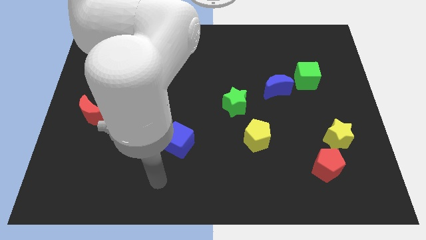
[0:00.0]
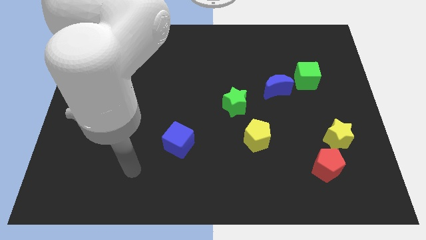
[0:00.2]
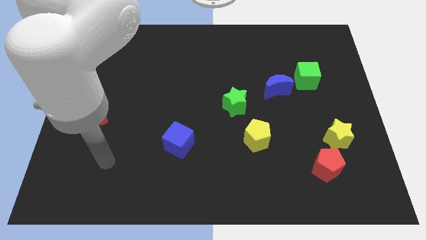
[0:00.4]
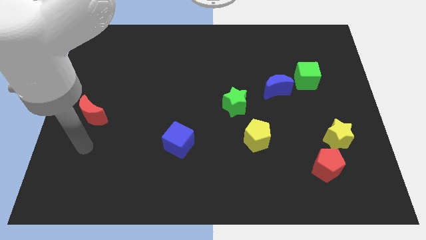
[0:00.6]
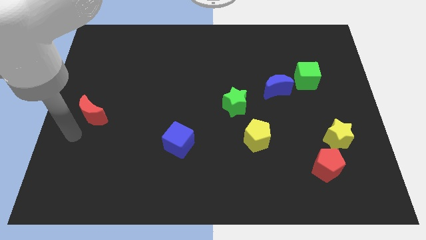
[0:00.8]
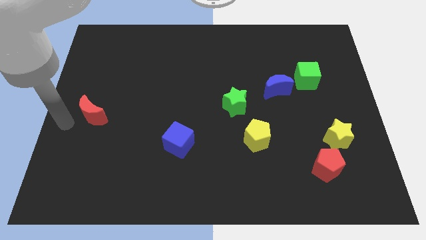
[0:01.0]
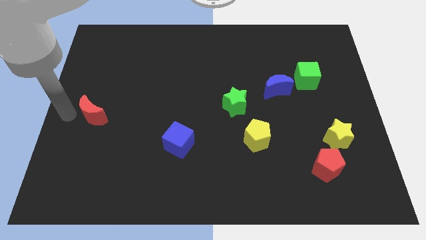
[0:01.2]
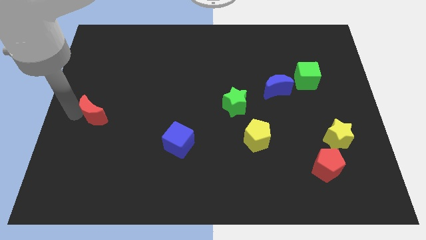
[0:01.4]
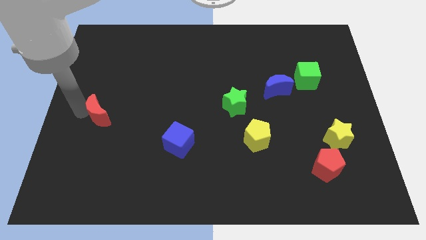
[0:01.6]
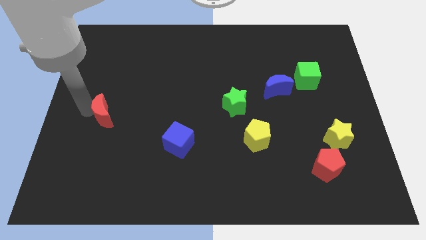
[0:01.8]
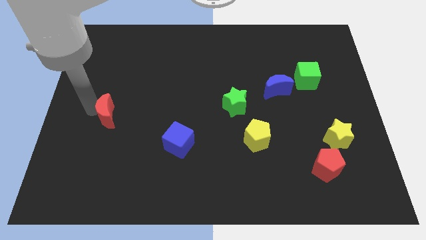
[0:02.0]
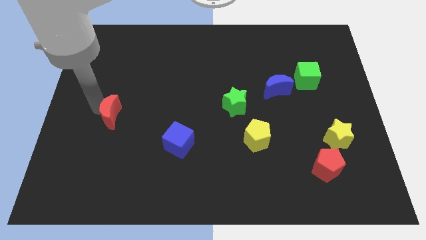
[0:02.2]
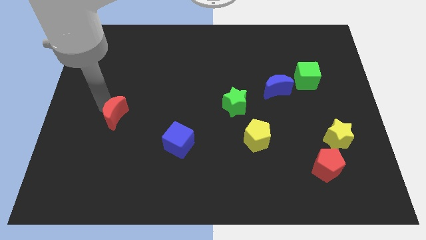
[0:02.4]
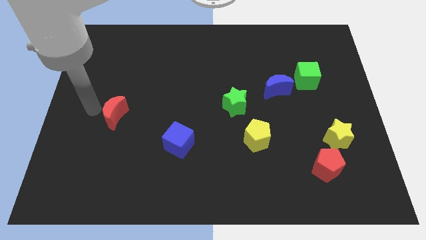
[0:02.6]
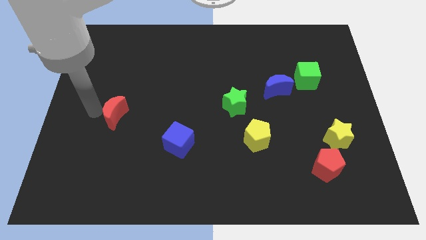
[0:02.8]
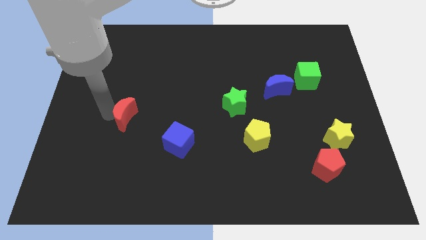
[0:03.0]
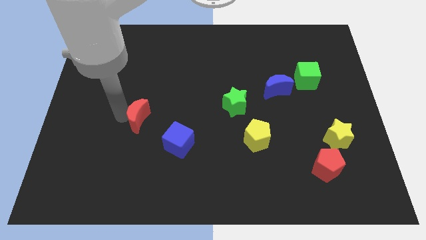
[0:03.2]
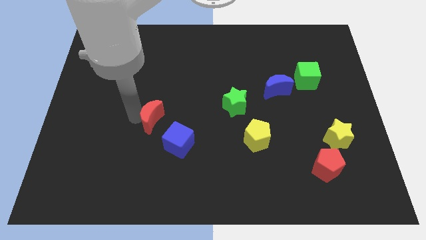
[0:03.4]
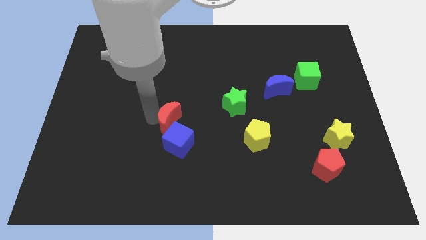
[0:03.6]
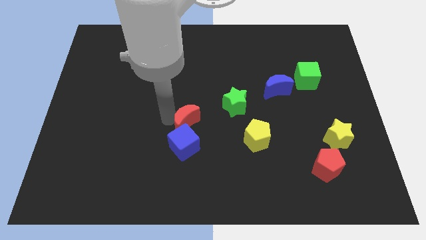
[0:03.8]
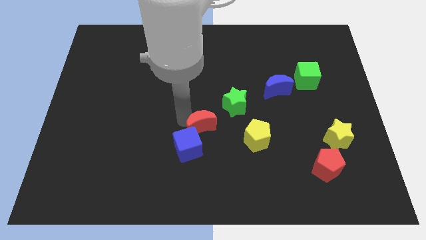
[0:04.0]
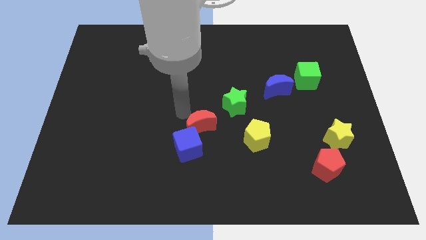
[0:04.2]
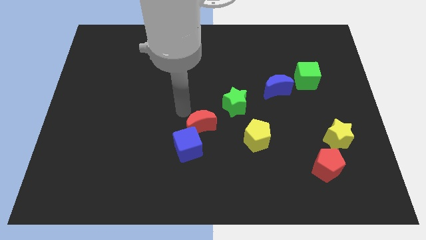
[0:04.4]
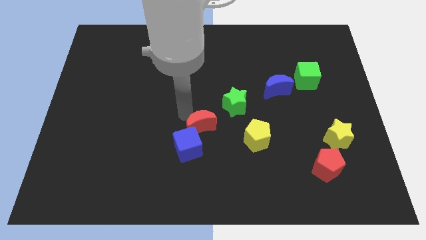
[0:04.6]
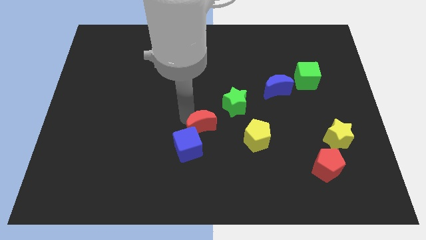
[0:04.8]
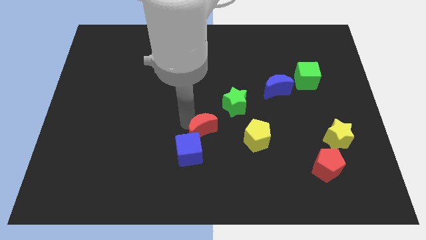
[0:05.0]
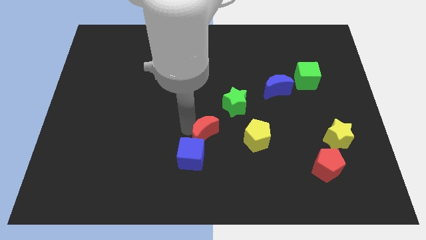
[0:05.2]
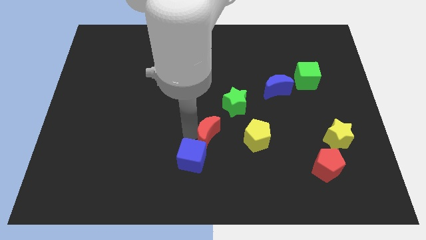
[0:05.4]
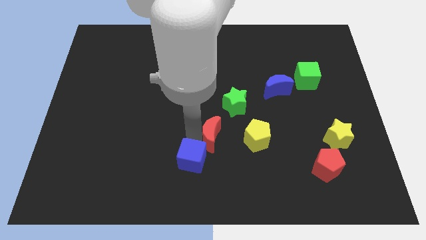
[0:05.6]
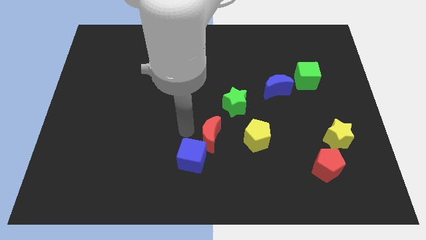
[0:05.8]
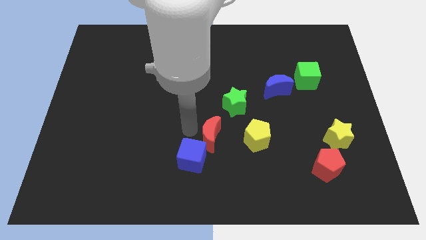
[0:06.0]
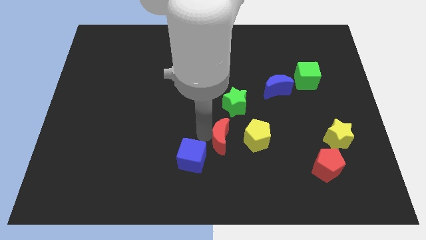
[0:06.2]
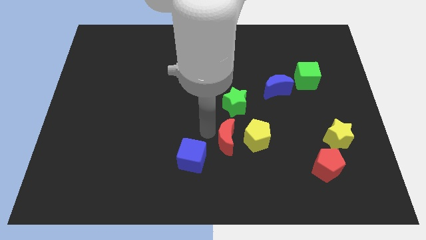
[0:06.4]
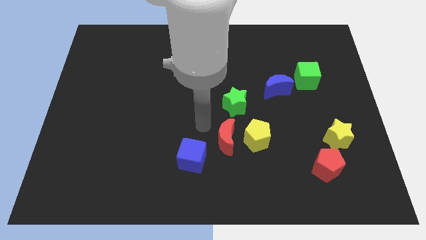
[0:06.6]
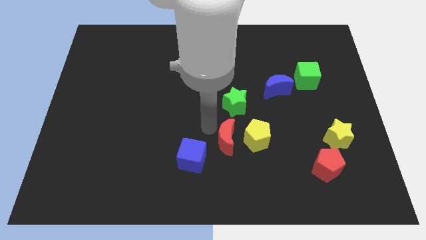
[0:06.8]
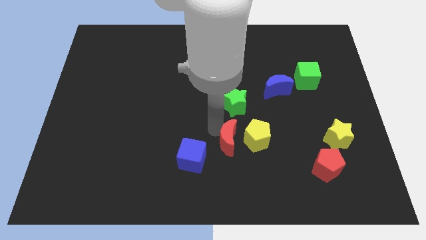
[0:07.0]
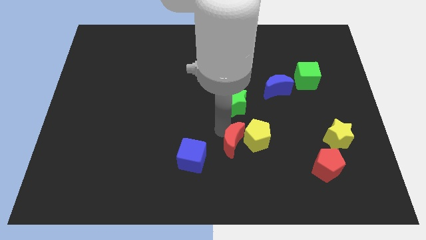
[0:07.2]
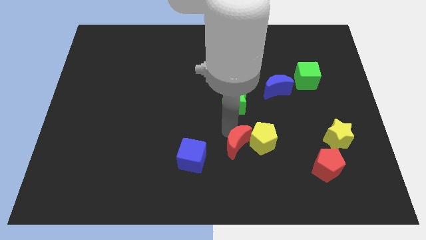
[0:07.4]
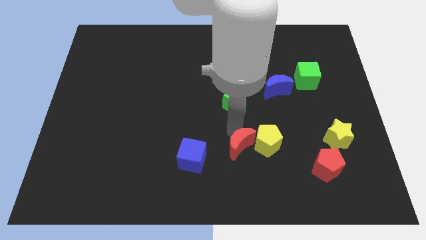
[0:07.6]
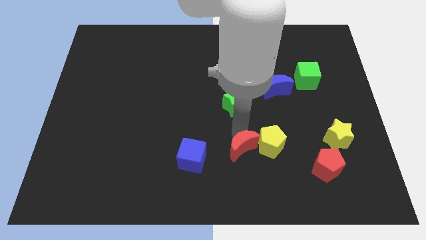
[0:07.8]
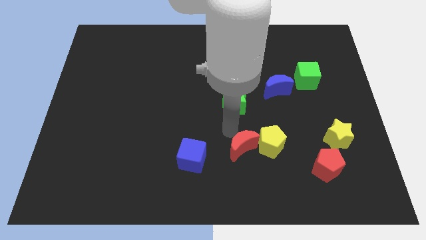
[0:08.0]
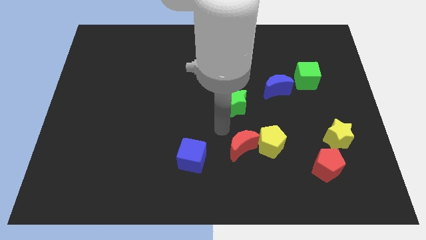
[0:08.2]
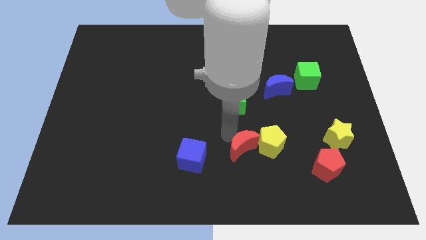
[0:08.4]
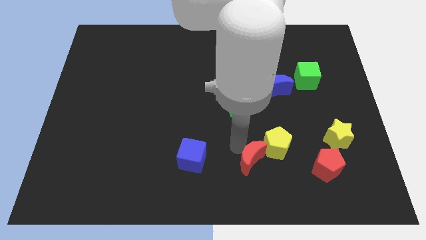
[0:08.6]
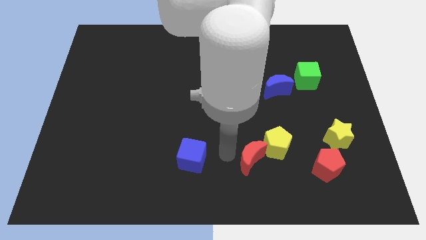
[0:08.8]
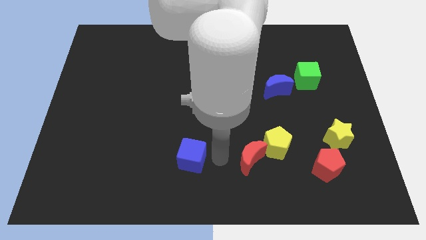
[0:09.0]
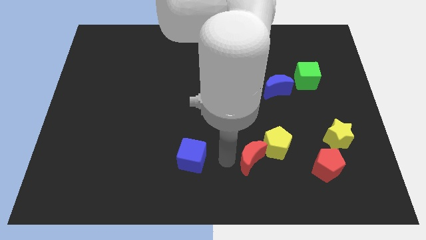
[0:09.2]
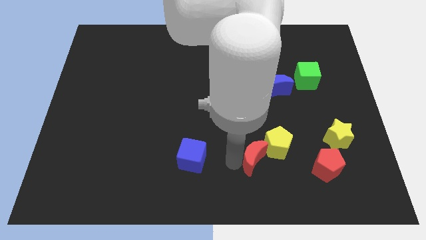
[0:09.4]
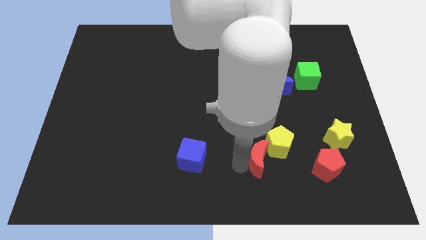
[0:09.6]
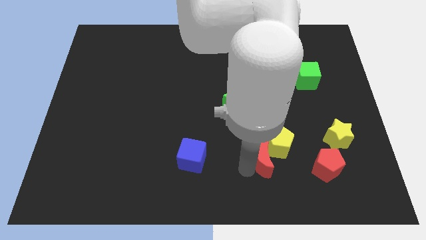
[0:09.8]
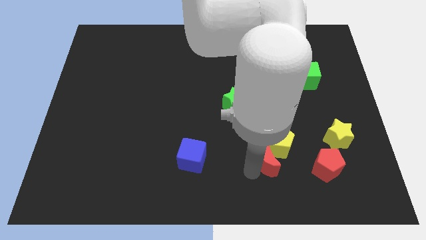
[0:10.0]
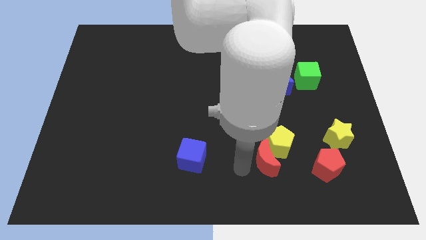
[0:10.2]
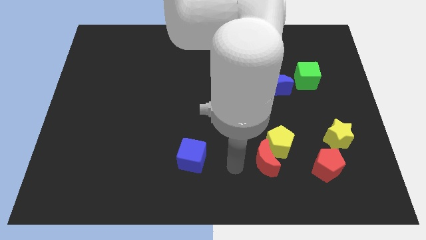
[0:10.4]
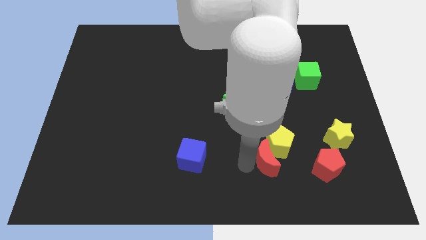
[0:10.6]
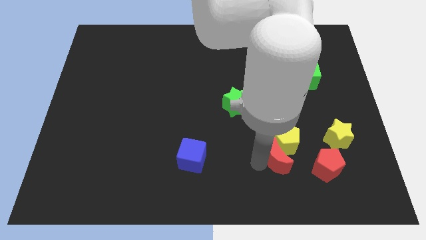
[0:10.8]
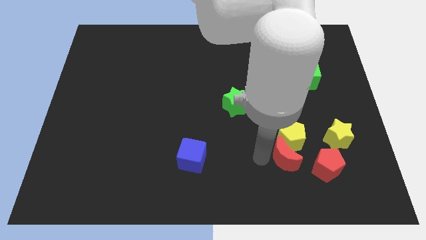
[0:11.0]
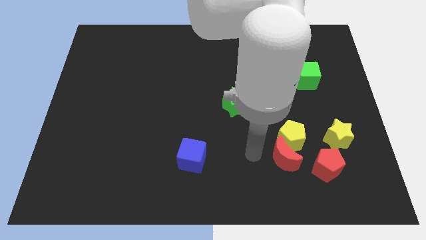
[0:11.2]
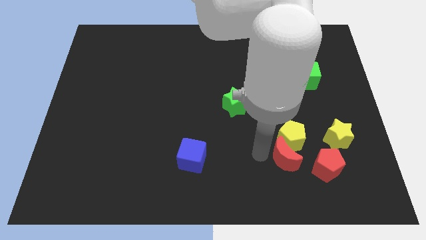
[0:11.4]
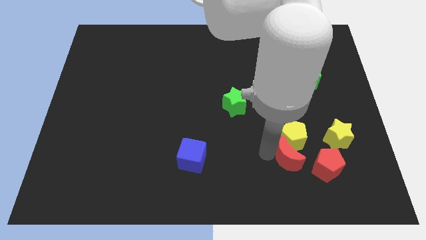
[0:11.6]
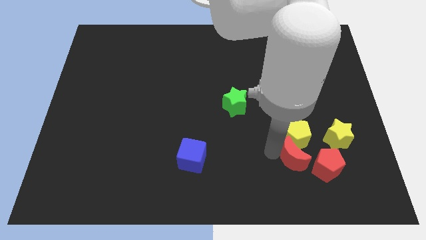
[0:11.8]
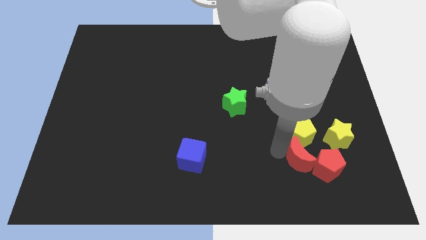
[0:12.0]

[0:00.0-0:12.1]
move the red moon close to the red pentagon
